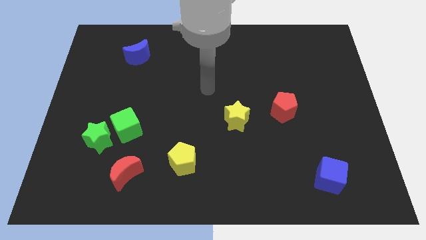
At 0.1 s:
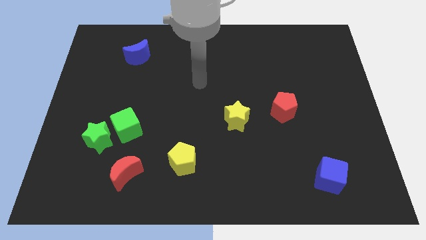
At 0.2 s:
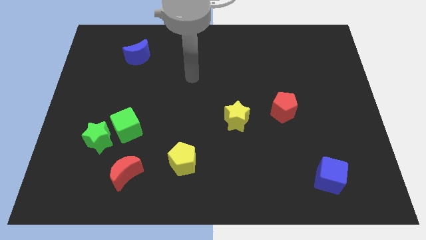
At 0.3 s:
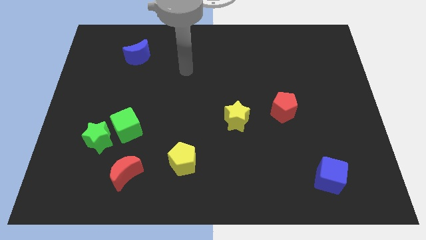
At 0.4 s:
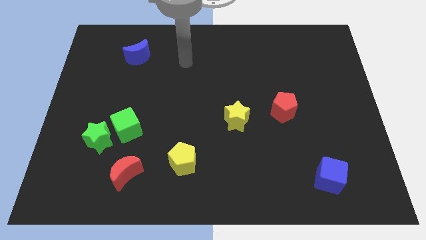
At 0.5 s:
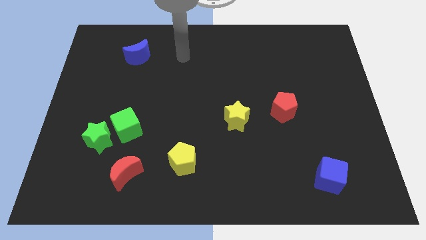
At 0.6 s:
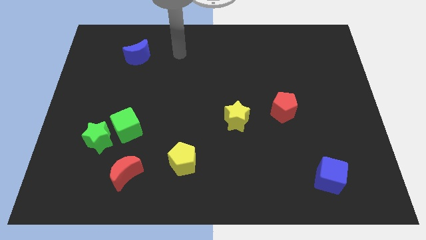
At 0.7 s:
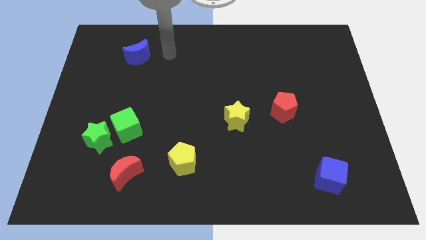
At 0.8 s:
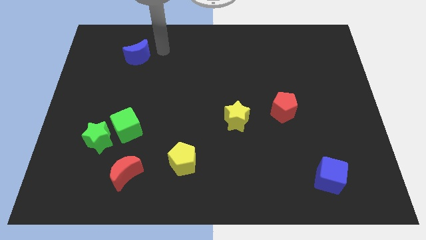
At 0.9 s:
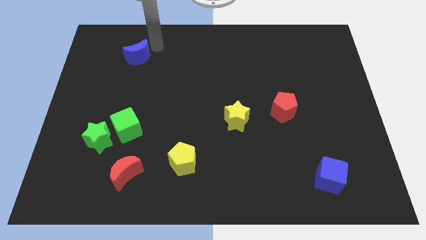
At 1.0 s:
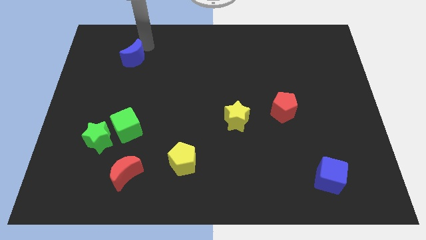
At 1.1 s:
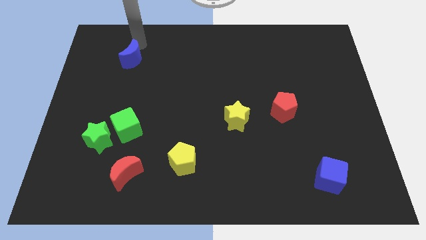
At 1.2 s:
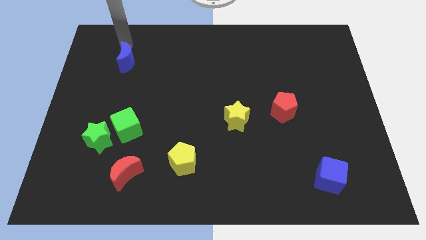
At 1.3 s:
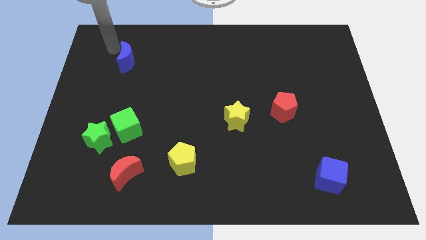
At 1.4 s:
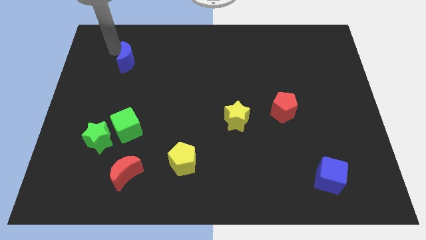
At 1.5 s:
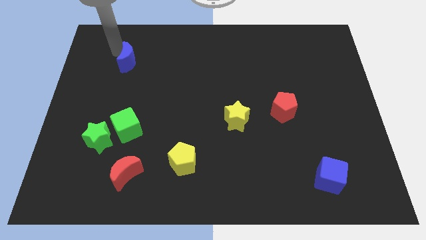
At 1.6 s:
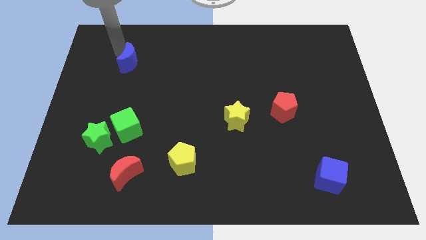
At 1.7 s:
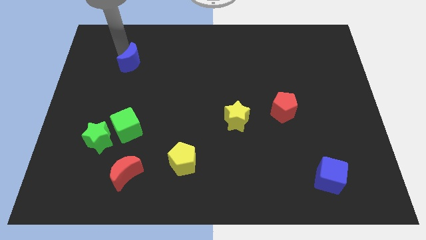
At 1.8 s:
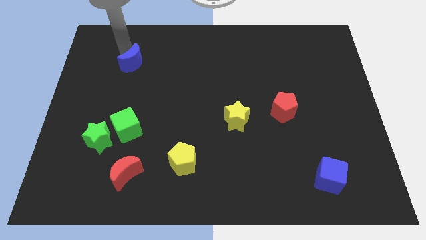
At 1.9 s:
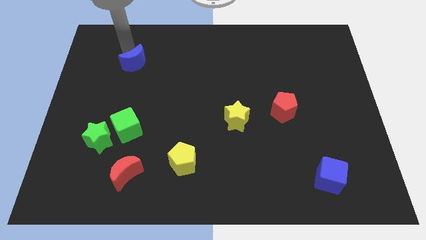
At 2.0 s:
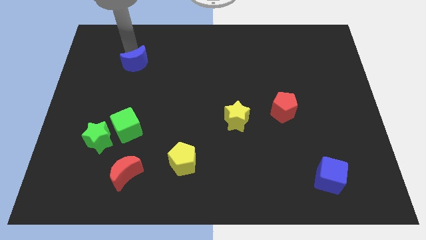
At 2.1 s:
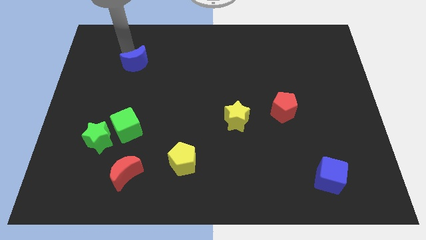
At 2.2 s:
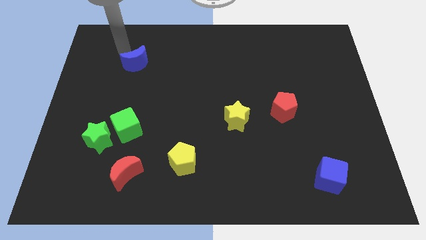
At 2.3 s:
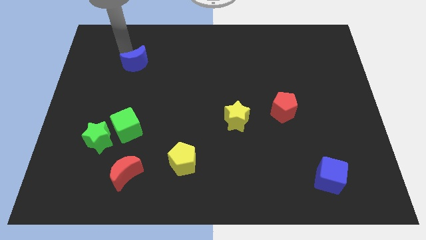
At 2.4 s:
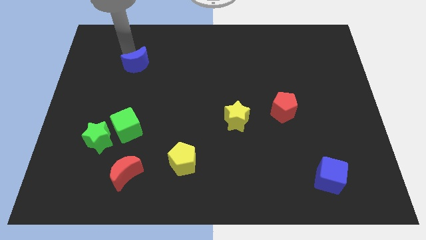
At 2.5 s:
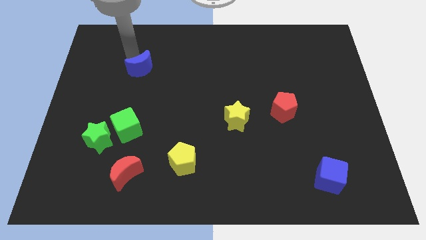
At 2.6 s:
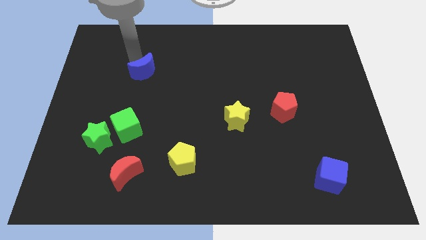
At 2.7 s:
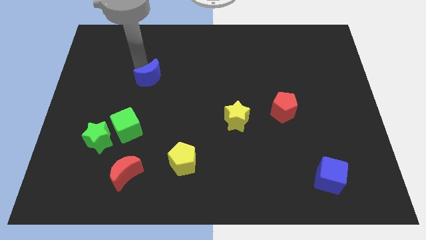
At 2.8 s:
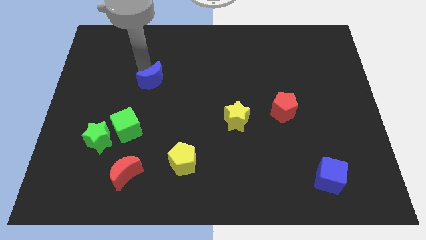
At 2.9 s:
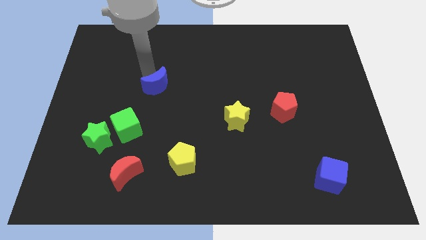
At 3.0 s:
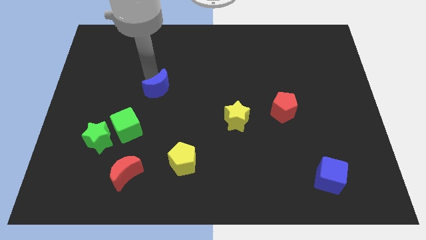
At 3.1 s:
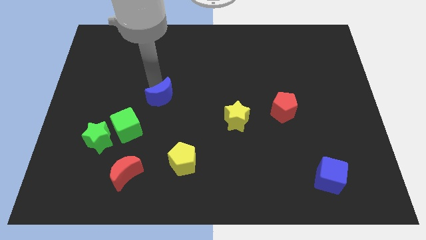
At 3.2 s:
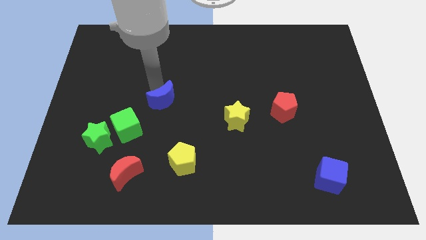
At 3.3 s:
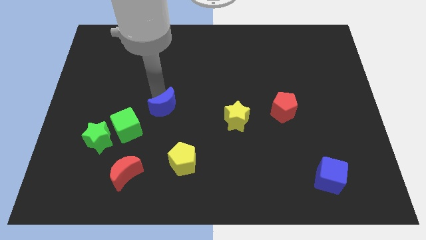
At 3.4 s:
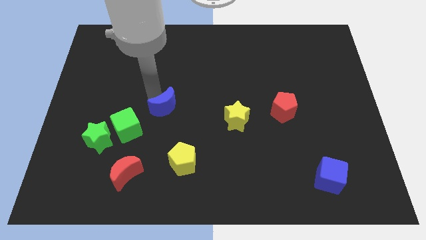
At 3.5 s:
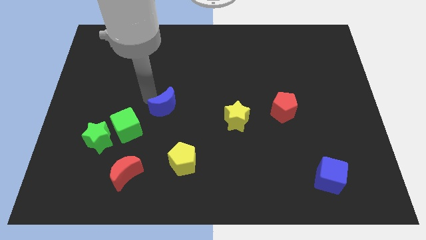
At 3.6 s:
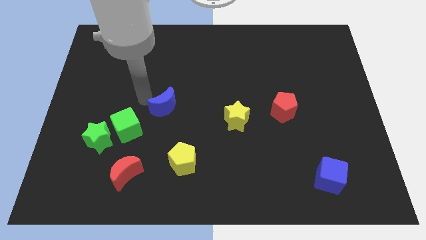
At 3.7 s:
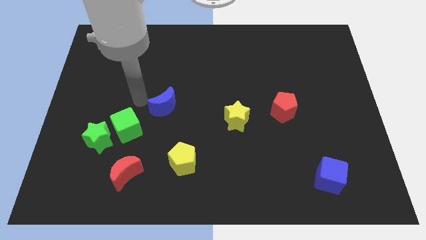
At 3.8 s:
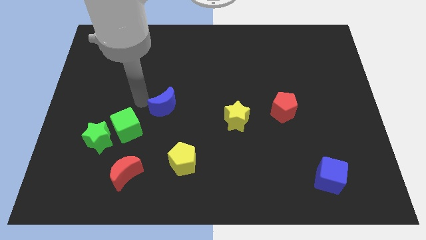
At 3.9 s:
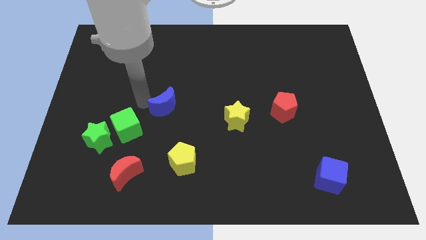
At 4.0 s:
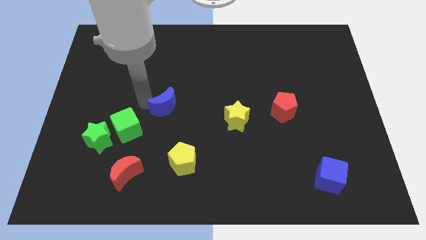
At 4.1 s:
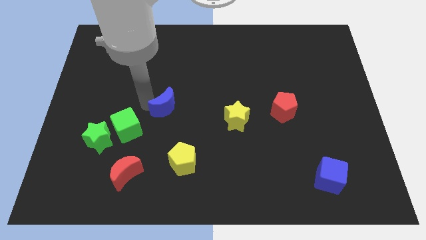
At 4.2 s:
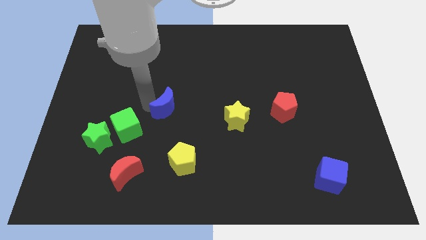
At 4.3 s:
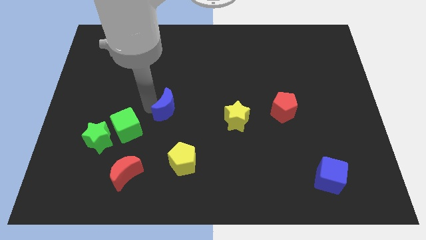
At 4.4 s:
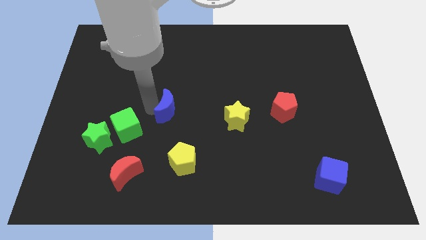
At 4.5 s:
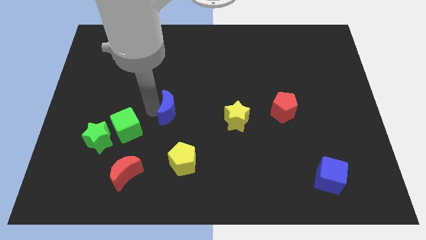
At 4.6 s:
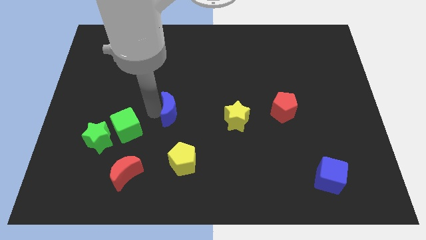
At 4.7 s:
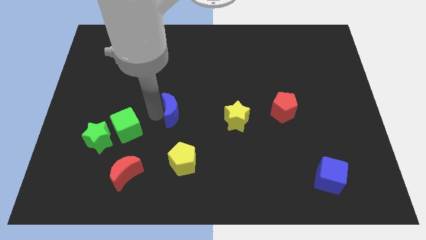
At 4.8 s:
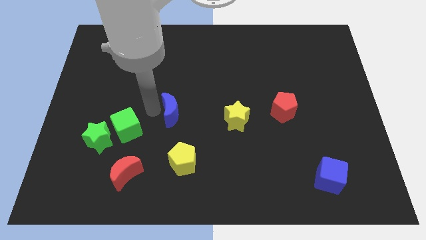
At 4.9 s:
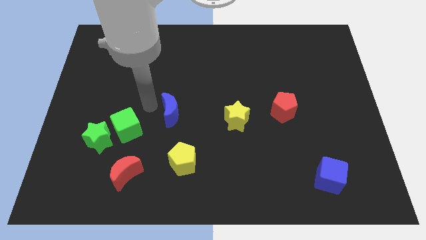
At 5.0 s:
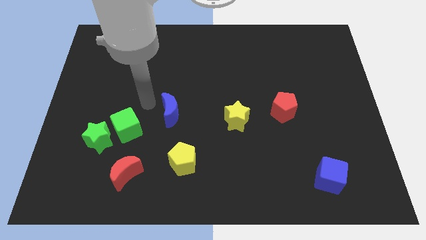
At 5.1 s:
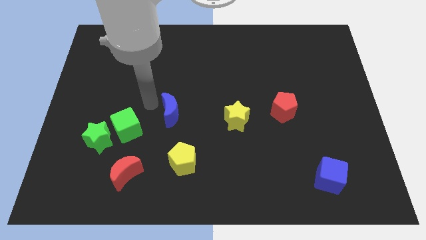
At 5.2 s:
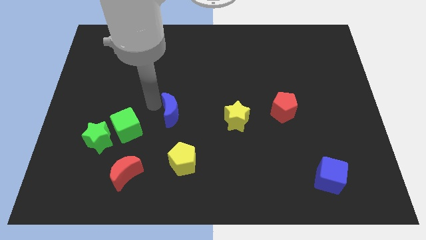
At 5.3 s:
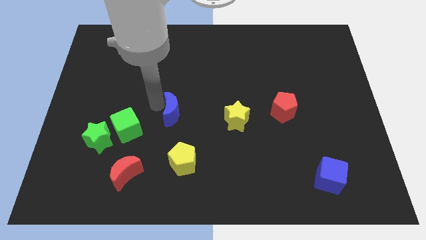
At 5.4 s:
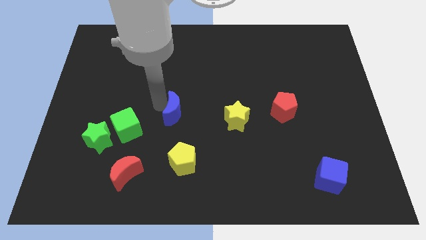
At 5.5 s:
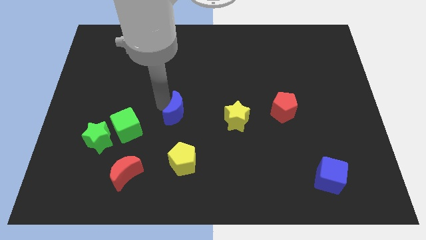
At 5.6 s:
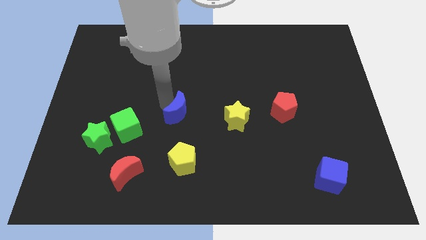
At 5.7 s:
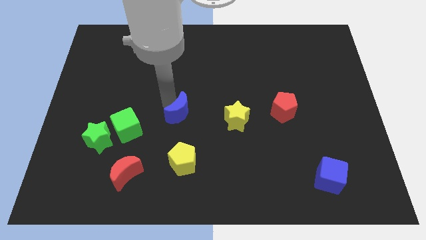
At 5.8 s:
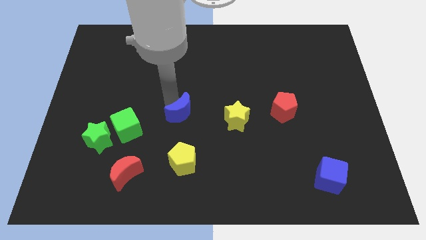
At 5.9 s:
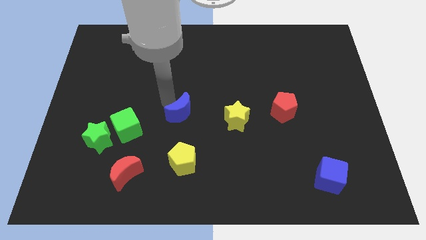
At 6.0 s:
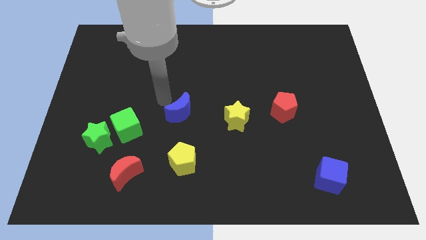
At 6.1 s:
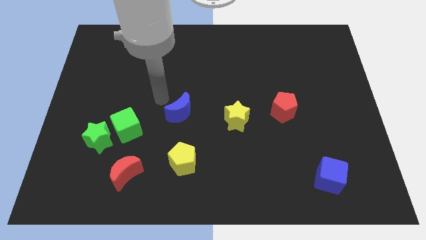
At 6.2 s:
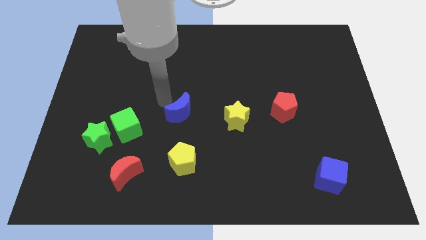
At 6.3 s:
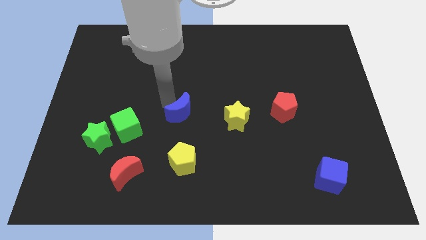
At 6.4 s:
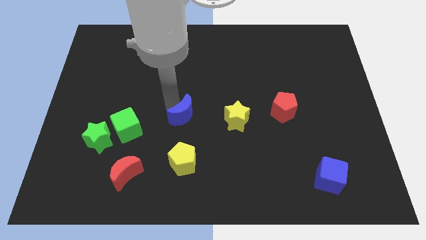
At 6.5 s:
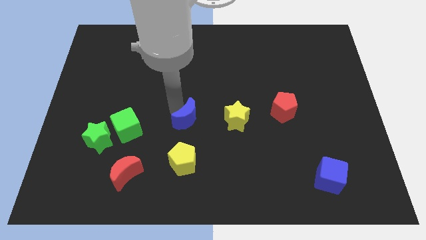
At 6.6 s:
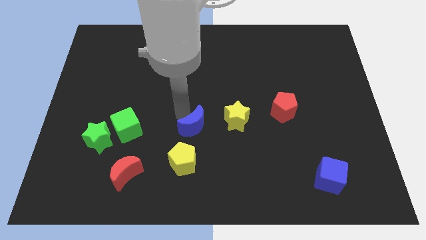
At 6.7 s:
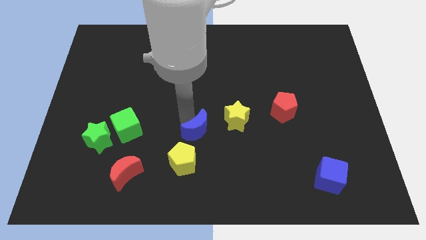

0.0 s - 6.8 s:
push the blue moon to the bottom left of the yellow star
